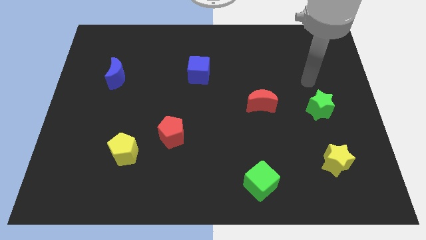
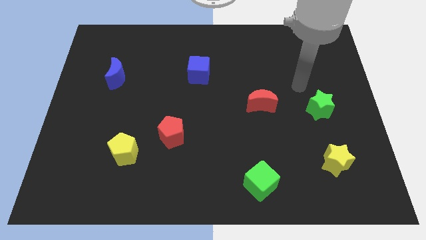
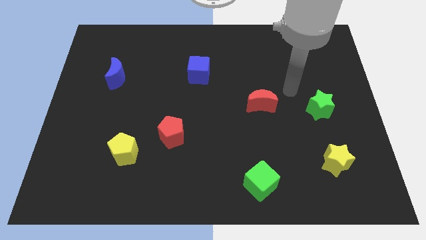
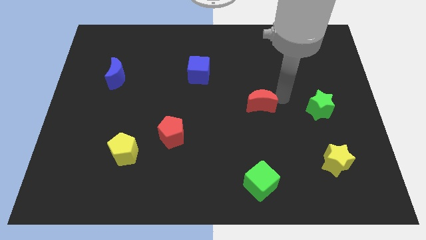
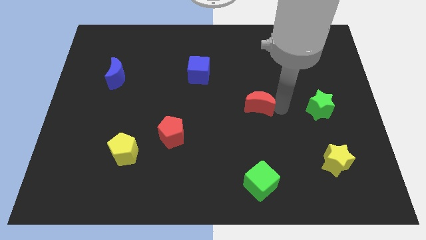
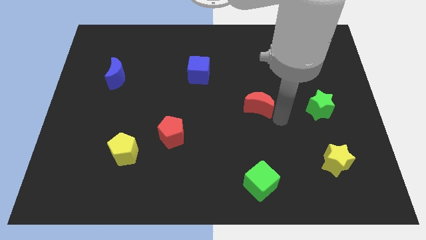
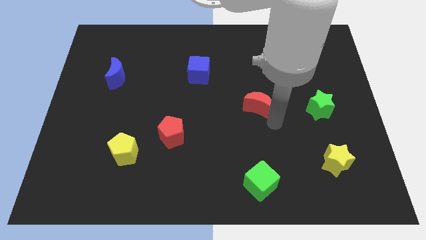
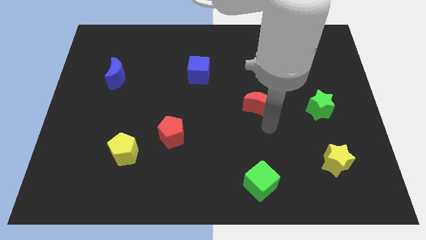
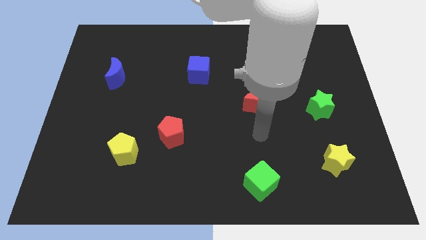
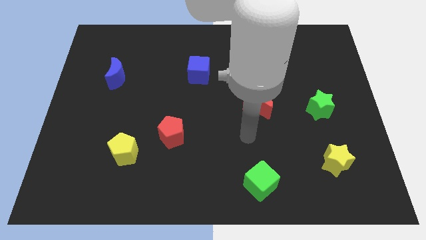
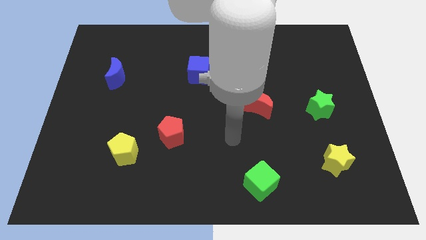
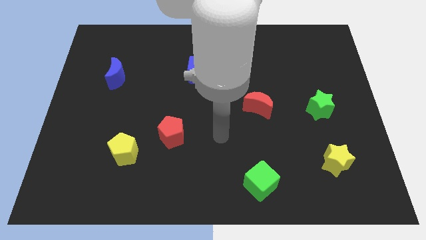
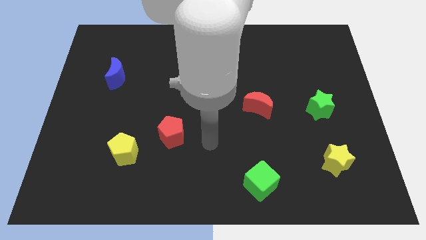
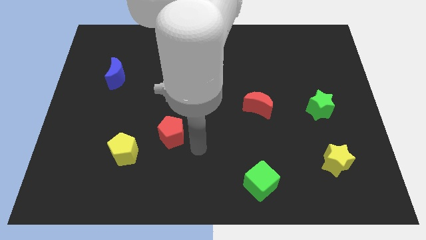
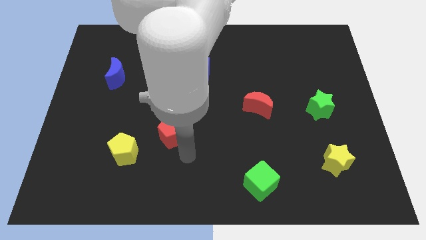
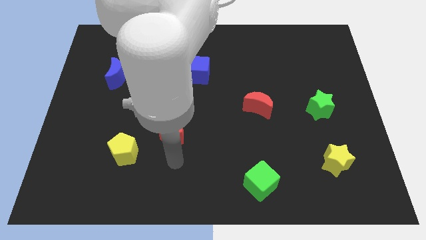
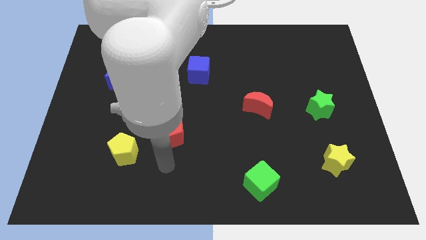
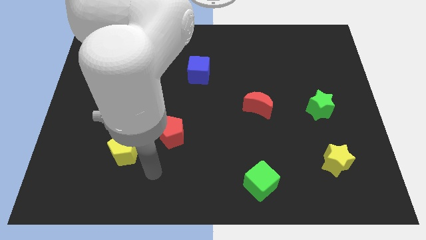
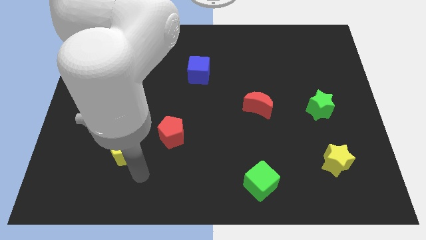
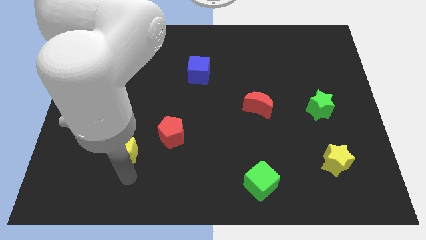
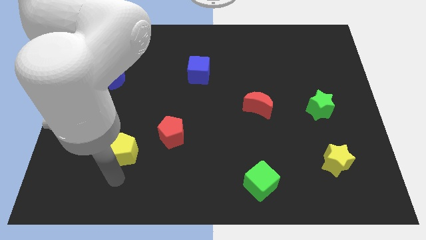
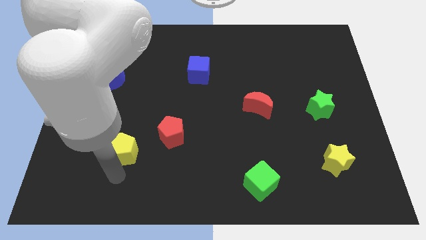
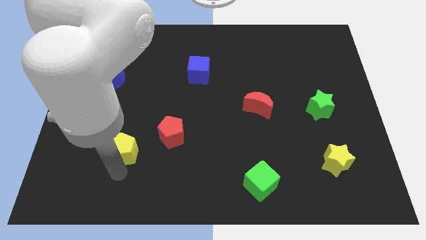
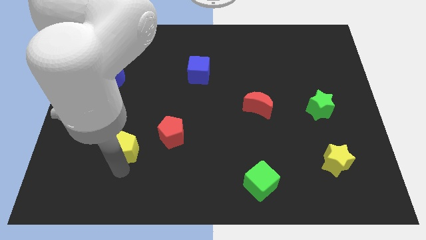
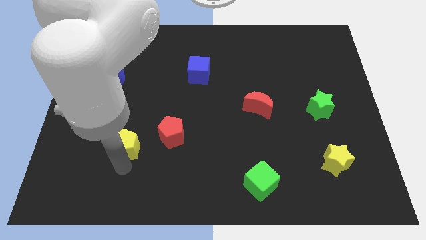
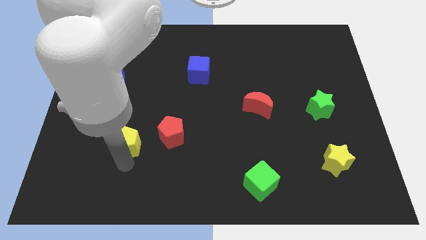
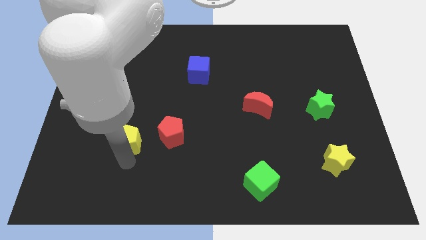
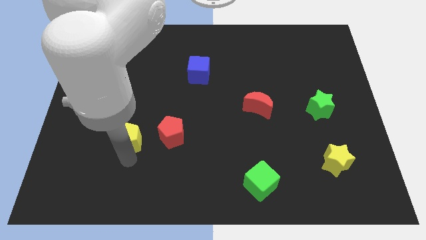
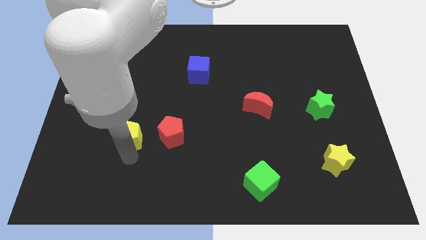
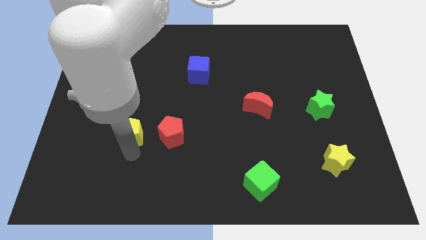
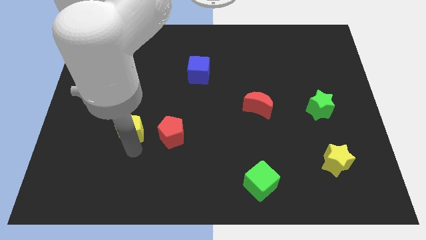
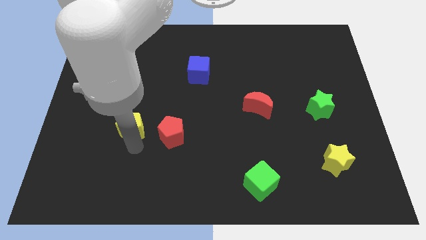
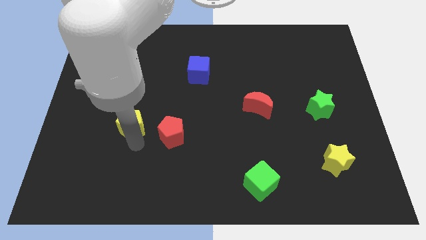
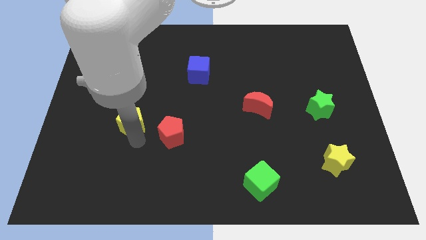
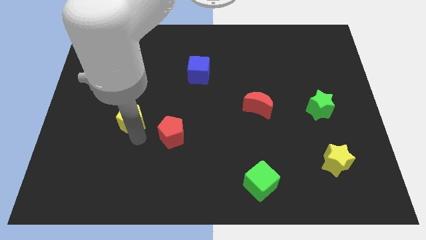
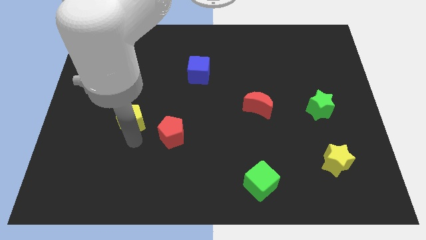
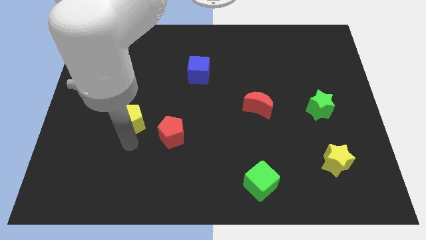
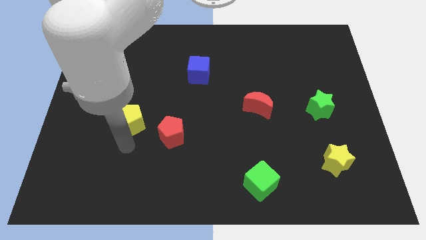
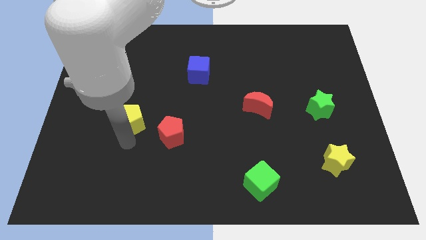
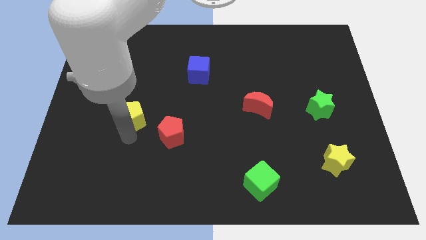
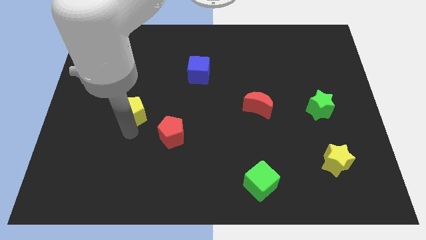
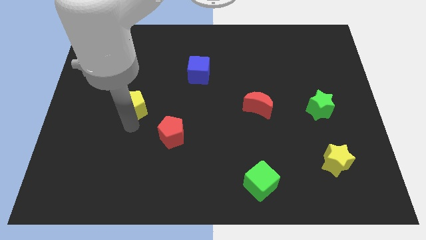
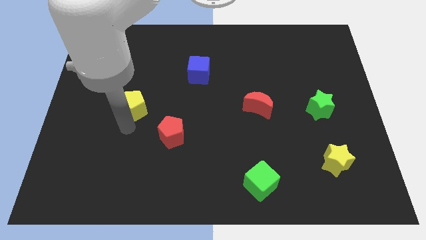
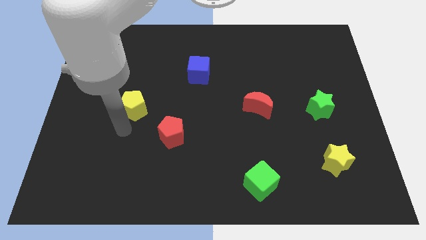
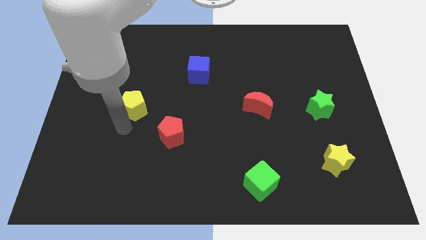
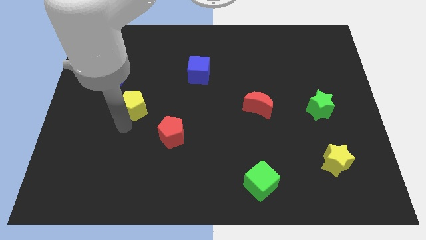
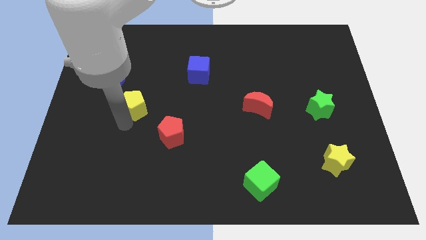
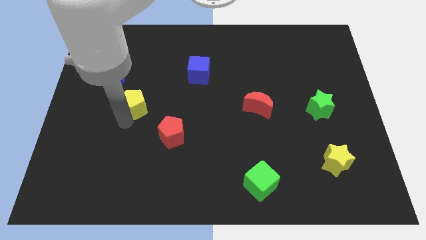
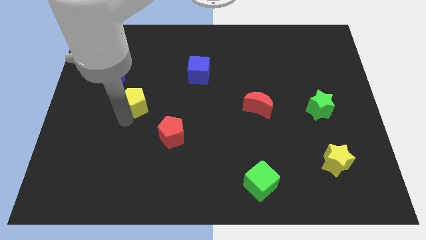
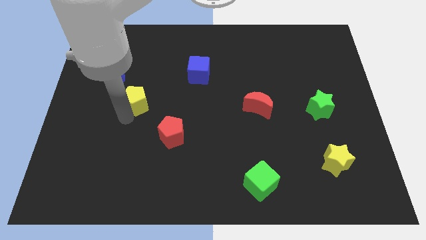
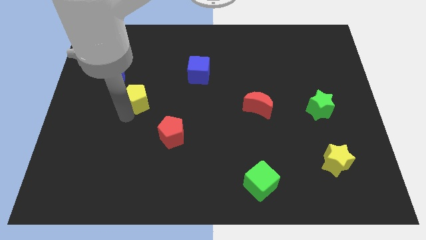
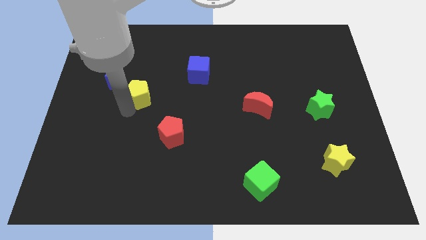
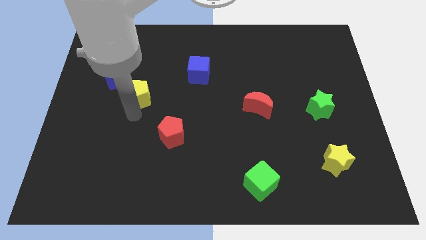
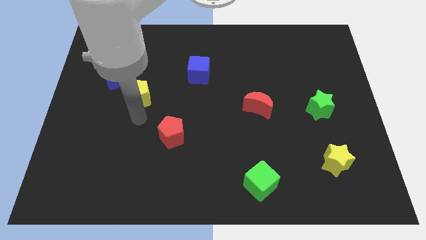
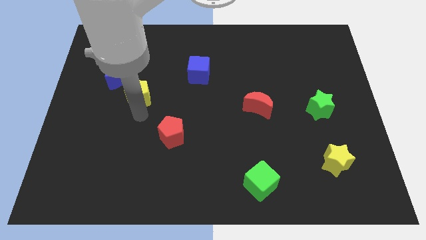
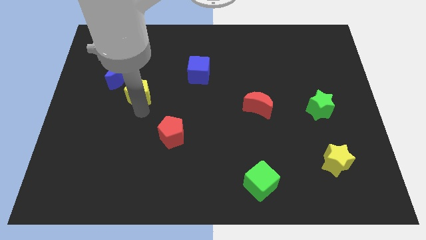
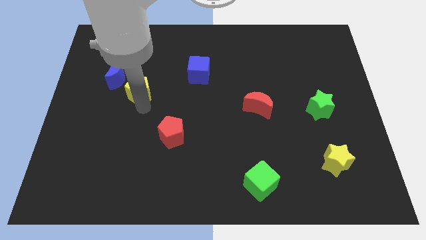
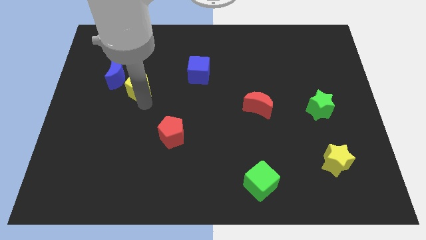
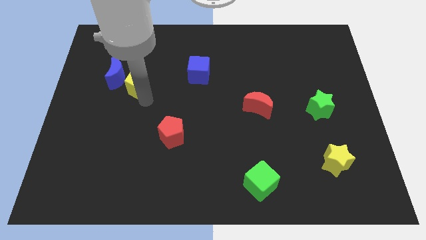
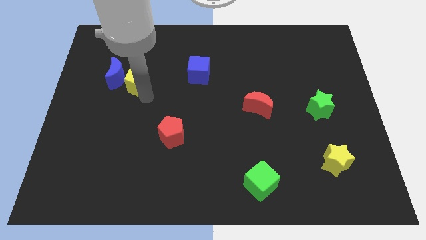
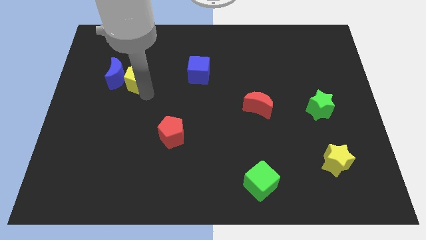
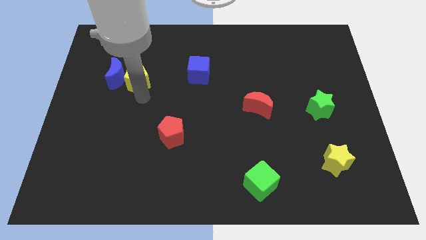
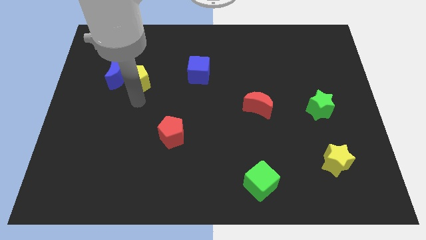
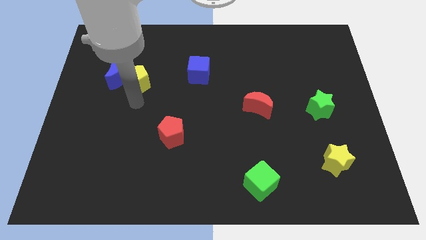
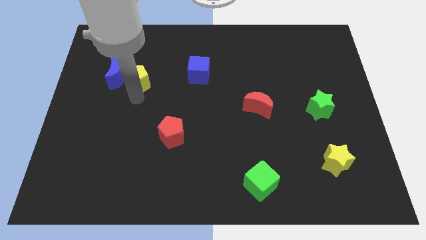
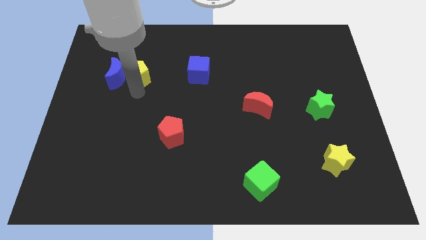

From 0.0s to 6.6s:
push the yellow pentagon to the top right side of the blue moon
